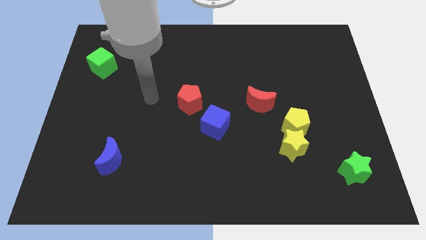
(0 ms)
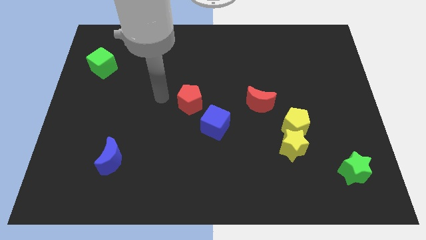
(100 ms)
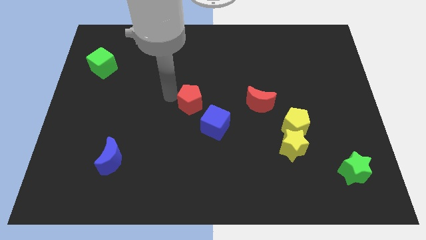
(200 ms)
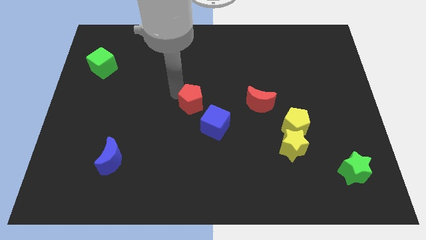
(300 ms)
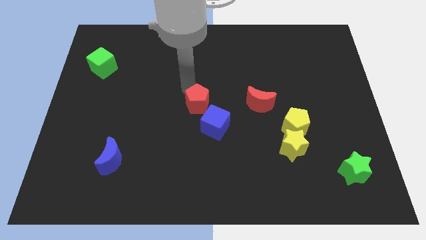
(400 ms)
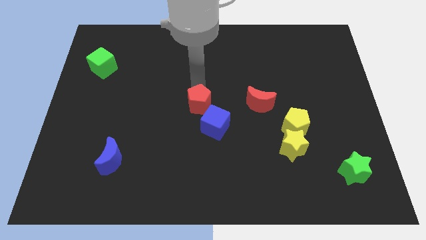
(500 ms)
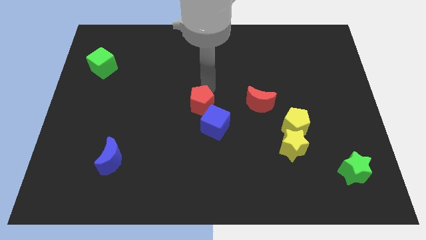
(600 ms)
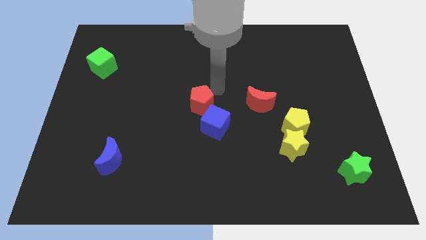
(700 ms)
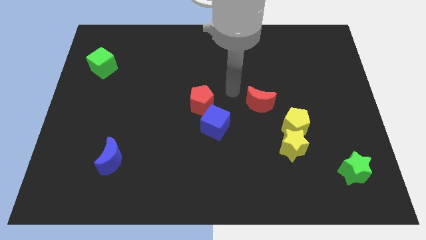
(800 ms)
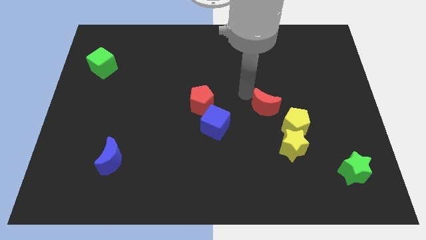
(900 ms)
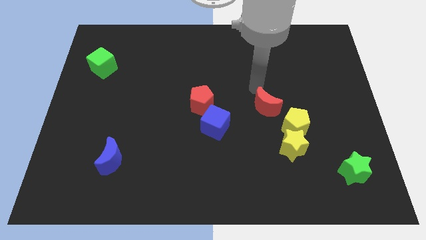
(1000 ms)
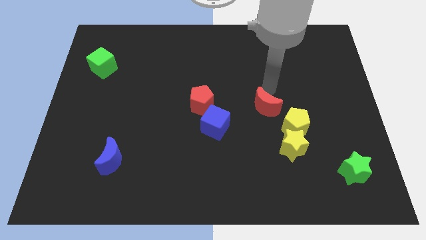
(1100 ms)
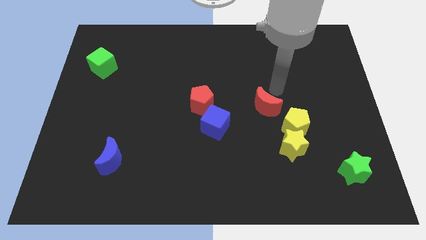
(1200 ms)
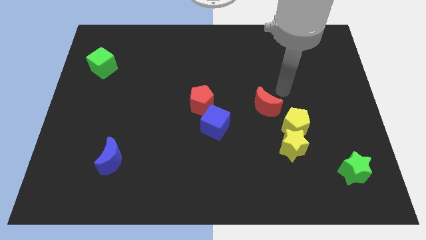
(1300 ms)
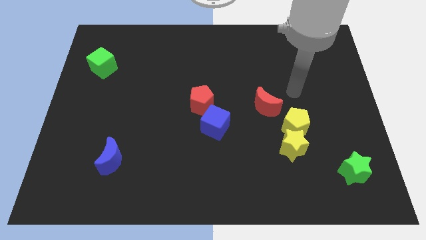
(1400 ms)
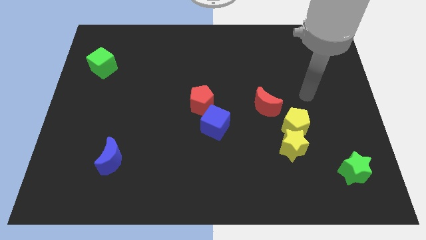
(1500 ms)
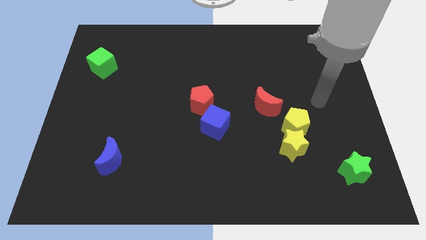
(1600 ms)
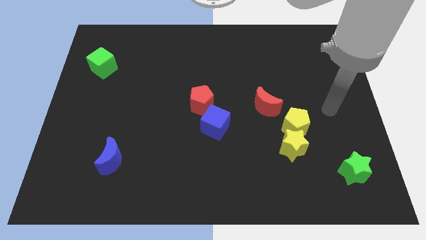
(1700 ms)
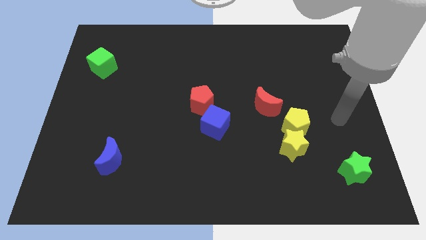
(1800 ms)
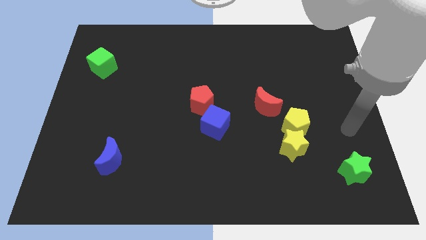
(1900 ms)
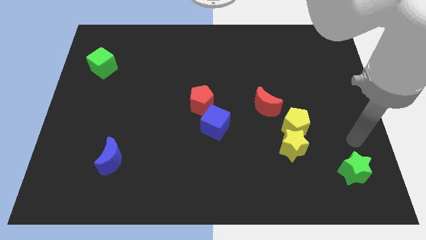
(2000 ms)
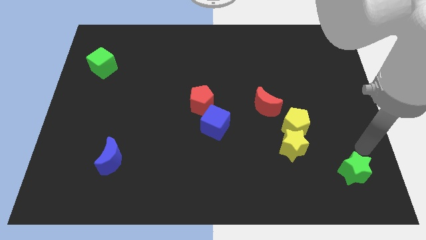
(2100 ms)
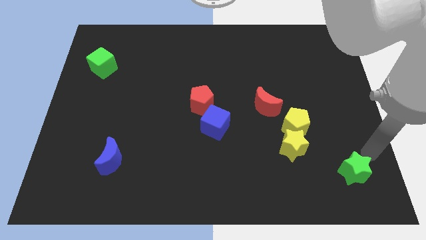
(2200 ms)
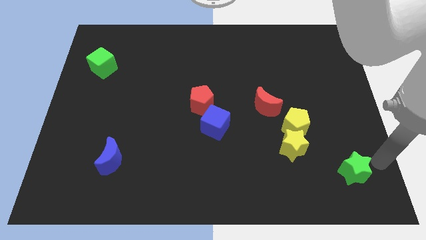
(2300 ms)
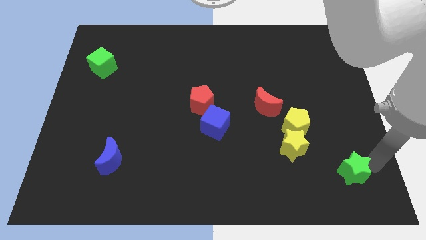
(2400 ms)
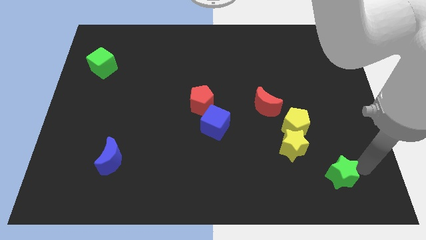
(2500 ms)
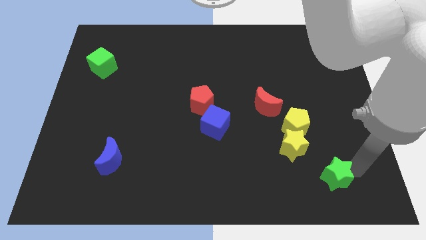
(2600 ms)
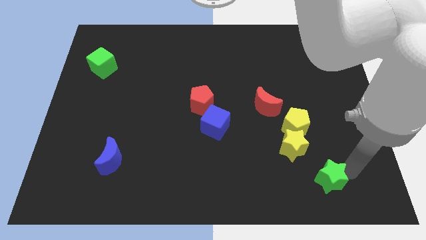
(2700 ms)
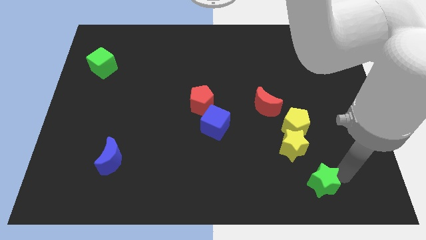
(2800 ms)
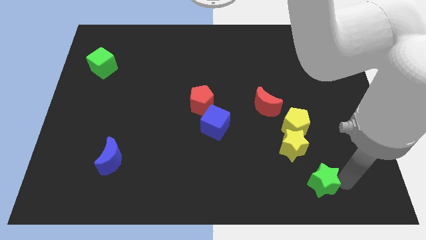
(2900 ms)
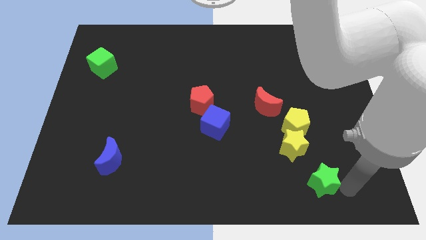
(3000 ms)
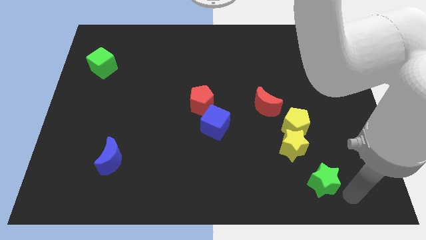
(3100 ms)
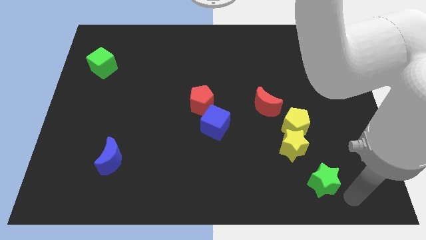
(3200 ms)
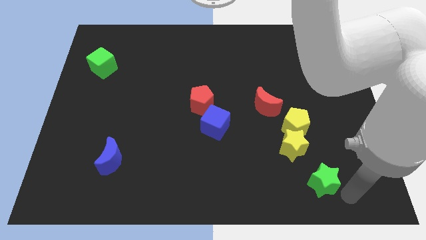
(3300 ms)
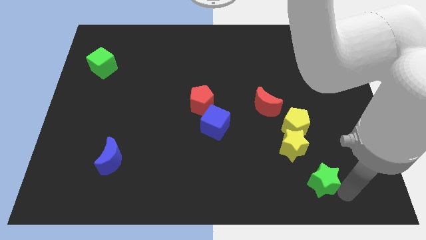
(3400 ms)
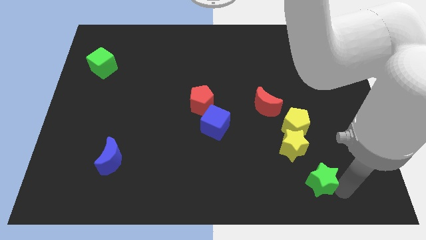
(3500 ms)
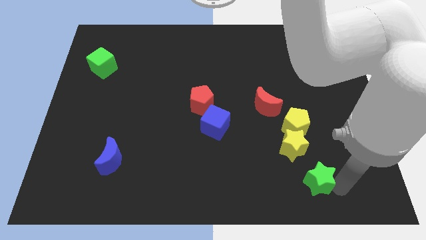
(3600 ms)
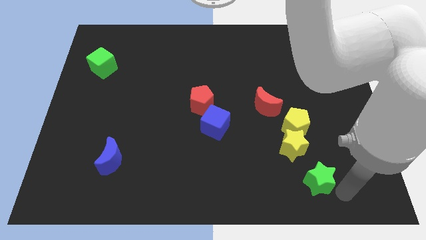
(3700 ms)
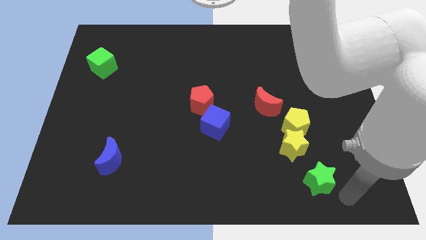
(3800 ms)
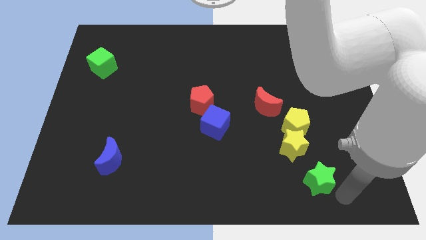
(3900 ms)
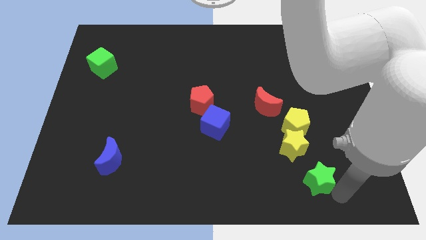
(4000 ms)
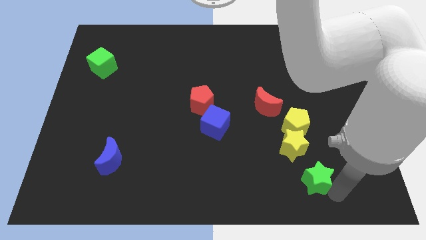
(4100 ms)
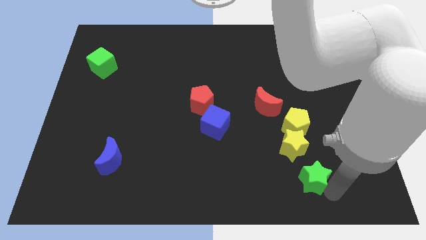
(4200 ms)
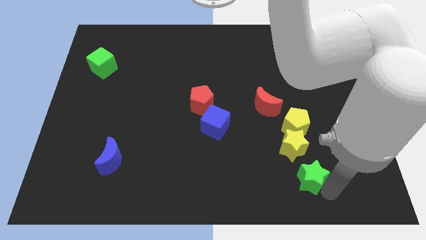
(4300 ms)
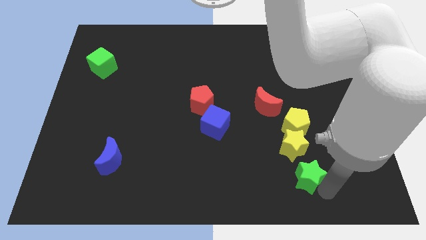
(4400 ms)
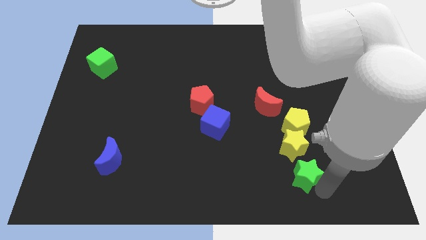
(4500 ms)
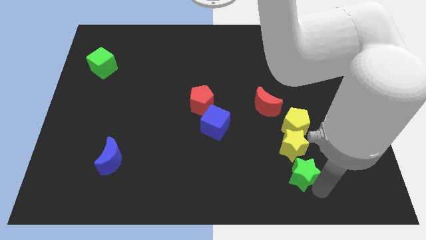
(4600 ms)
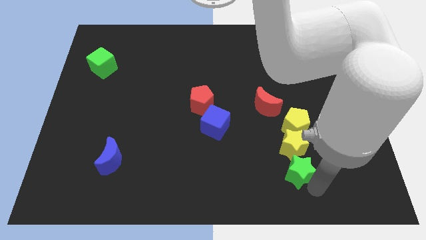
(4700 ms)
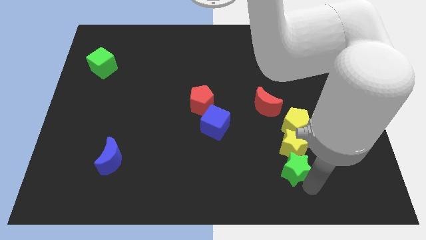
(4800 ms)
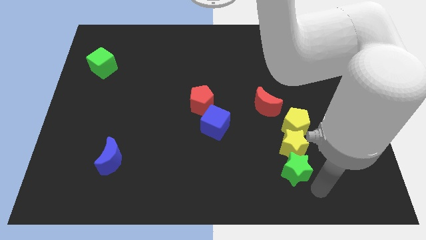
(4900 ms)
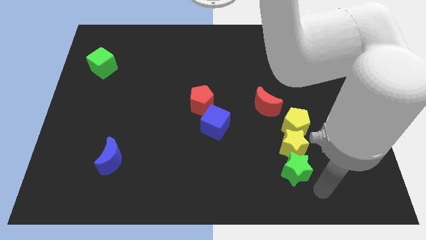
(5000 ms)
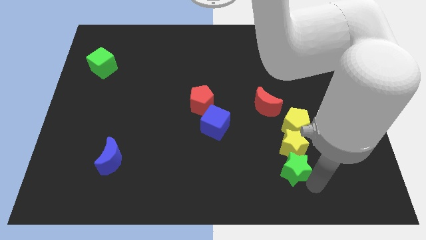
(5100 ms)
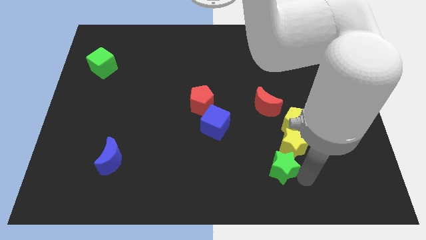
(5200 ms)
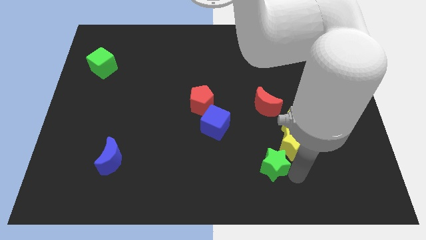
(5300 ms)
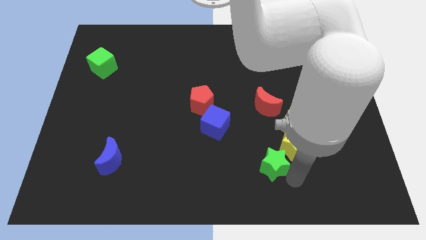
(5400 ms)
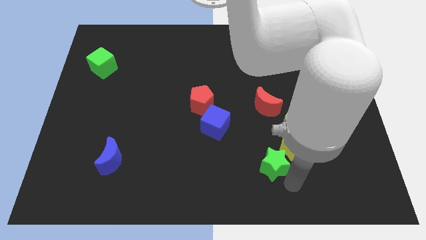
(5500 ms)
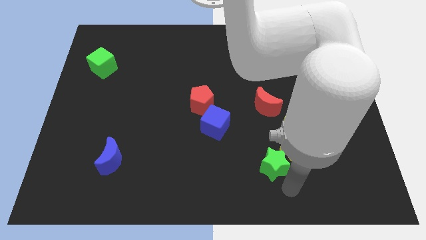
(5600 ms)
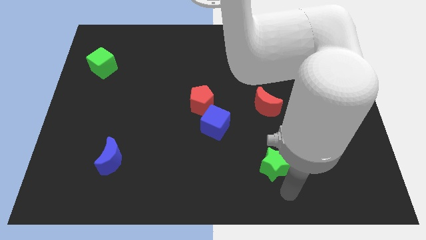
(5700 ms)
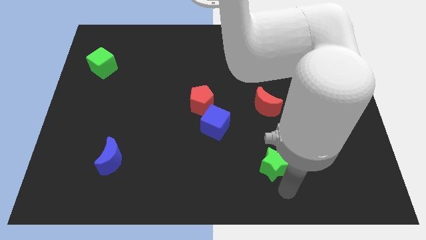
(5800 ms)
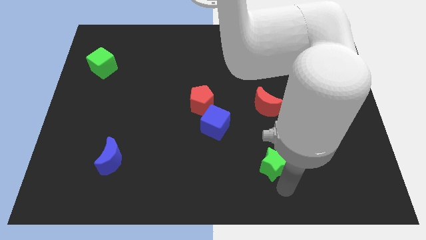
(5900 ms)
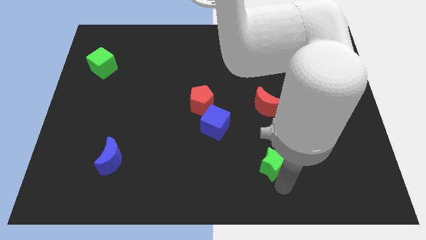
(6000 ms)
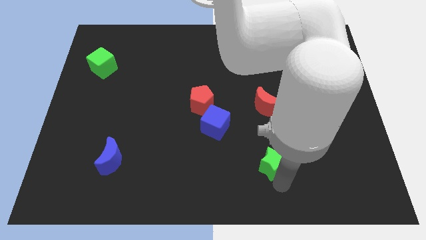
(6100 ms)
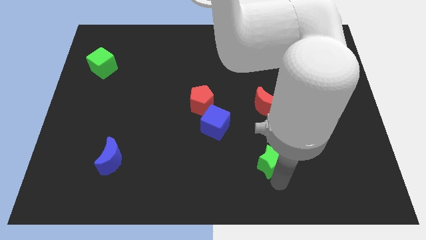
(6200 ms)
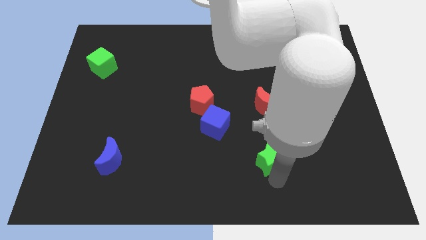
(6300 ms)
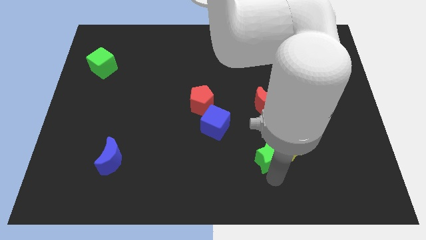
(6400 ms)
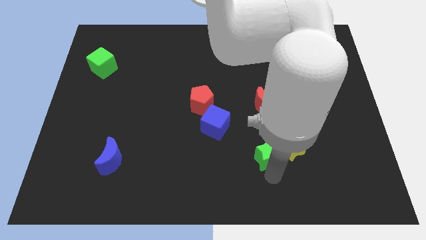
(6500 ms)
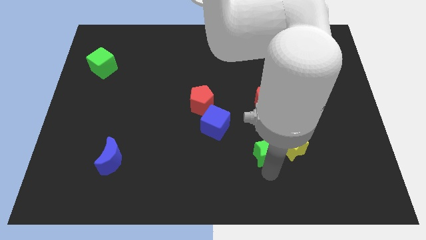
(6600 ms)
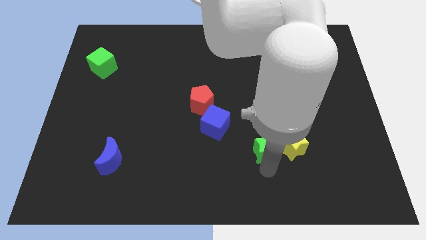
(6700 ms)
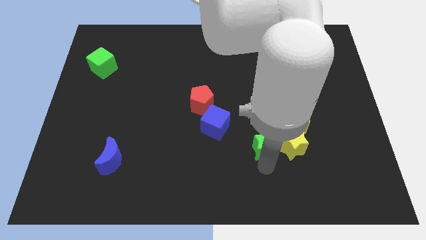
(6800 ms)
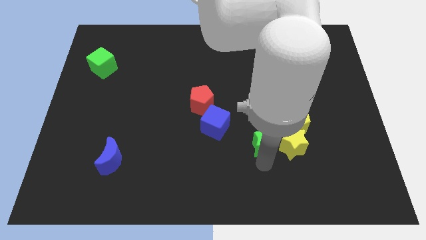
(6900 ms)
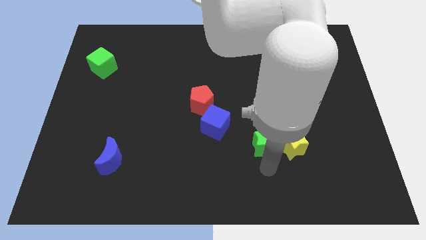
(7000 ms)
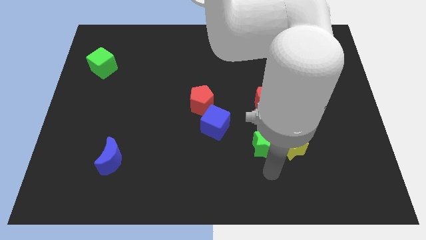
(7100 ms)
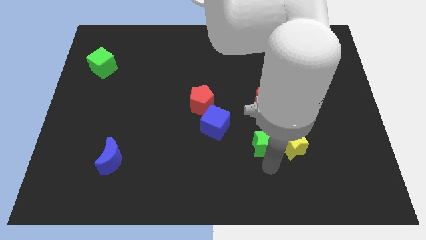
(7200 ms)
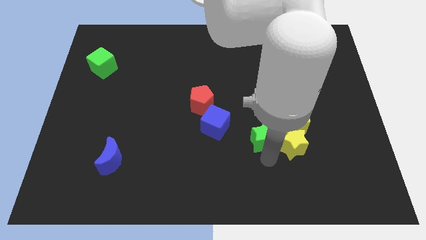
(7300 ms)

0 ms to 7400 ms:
push the green star to the right side of the blue cube

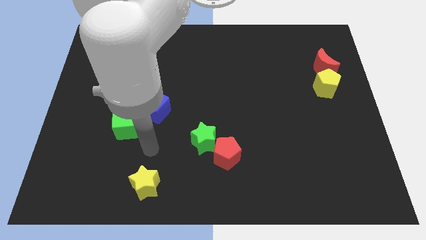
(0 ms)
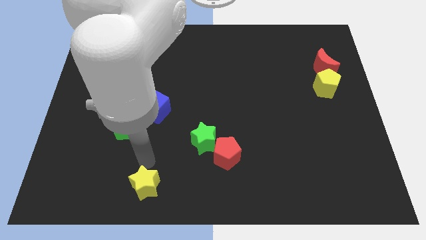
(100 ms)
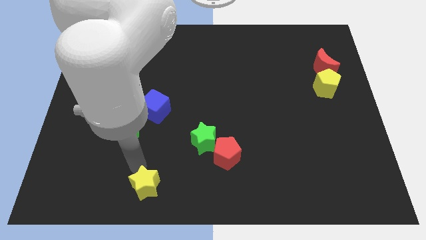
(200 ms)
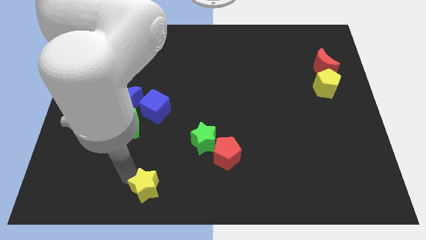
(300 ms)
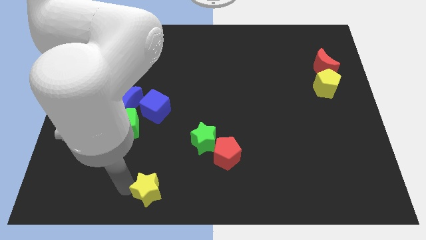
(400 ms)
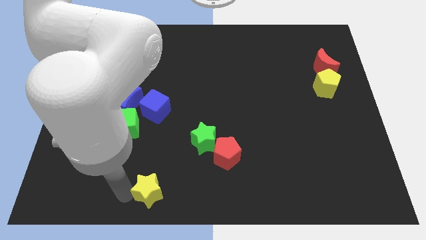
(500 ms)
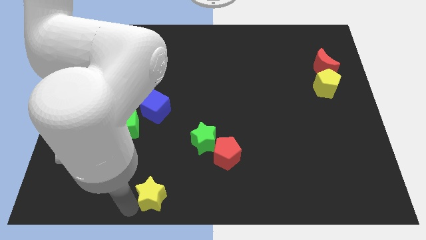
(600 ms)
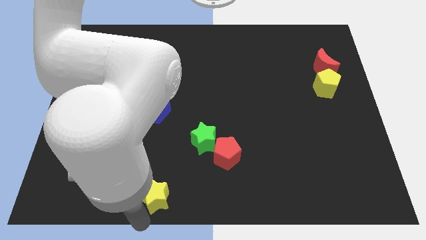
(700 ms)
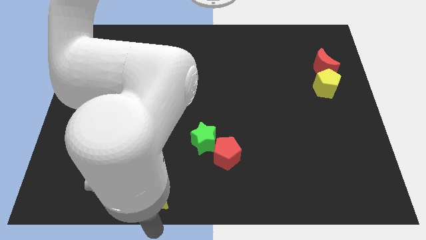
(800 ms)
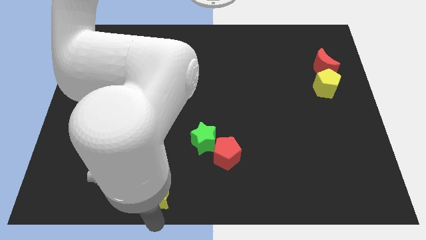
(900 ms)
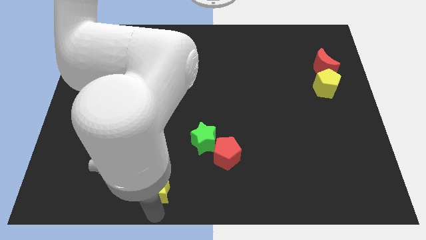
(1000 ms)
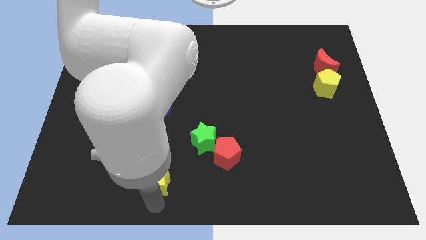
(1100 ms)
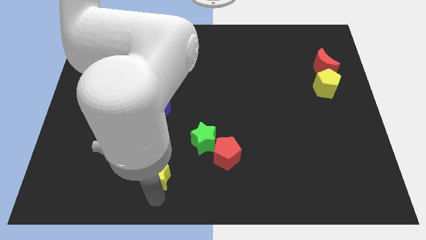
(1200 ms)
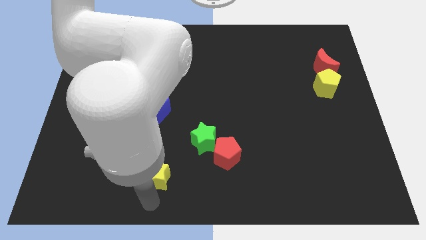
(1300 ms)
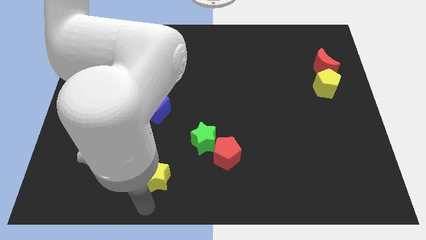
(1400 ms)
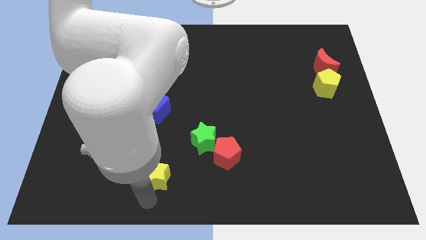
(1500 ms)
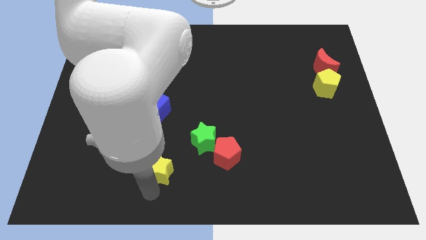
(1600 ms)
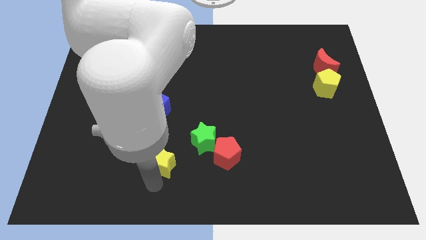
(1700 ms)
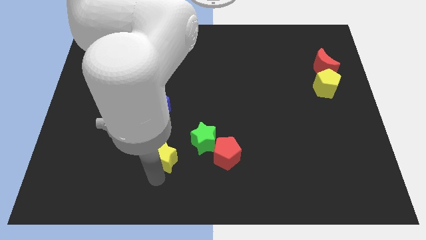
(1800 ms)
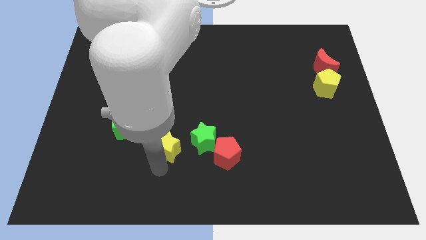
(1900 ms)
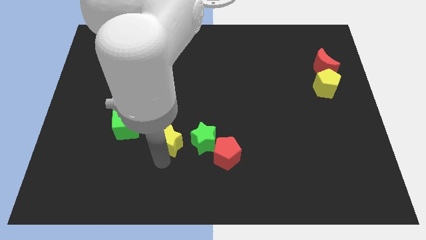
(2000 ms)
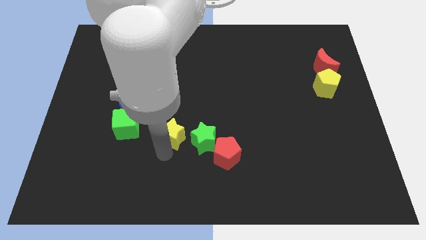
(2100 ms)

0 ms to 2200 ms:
push the yellow star to the top left of the green star
